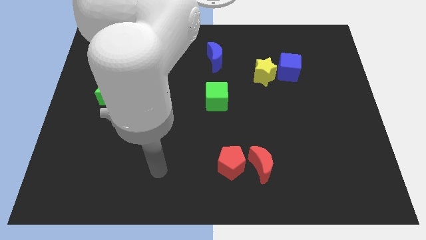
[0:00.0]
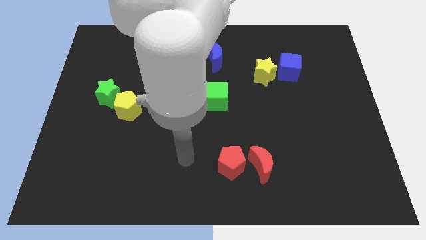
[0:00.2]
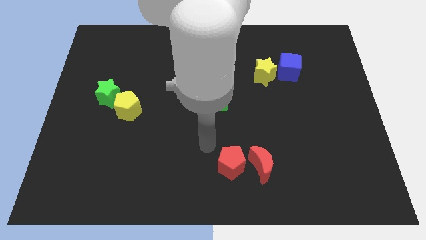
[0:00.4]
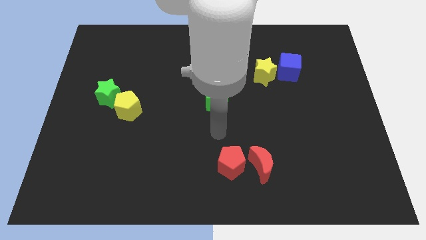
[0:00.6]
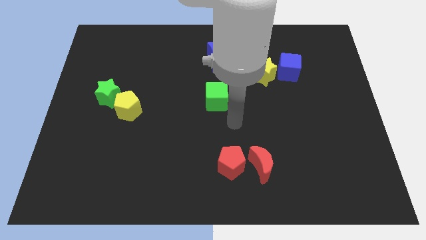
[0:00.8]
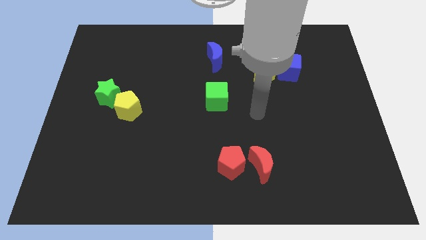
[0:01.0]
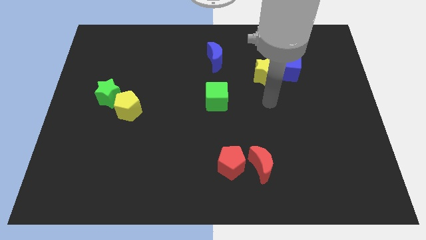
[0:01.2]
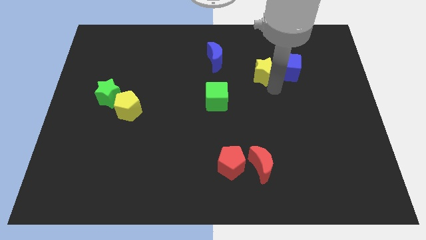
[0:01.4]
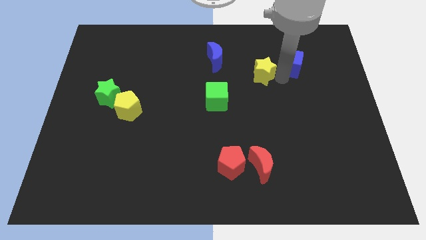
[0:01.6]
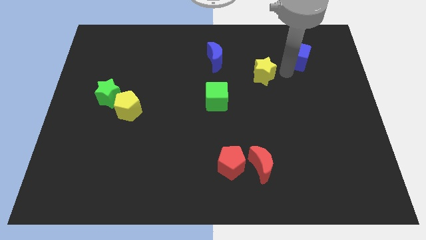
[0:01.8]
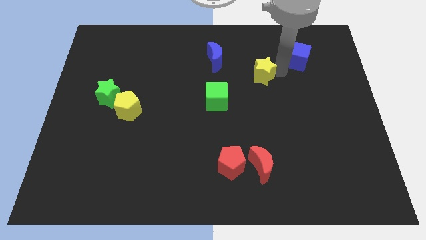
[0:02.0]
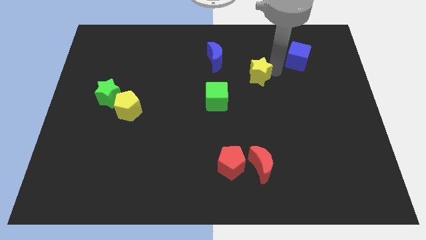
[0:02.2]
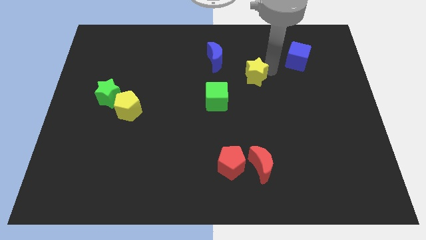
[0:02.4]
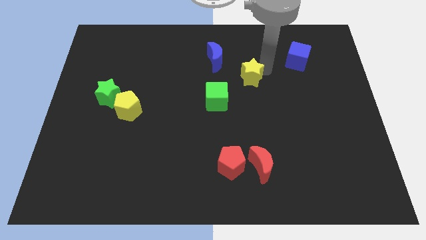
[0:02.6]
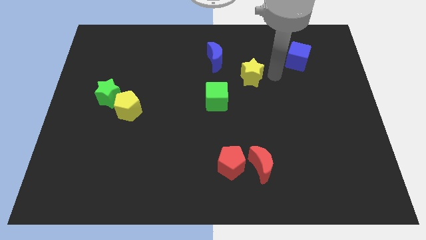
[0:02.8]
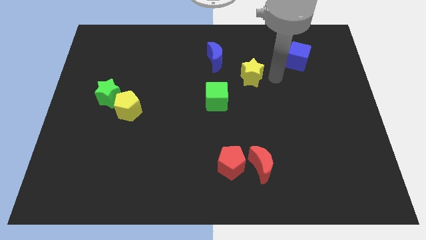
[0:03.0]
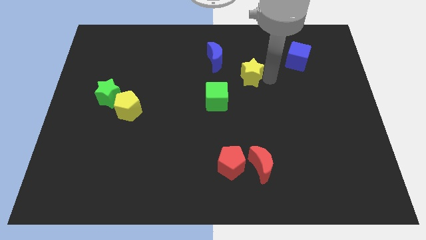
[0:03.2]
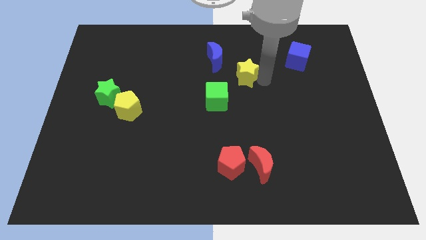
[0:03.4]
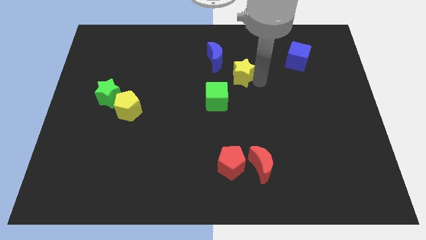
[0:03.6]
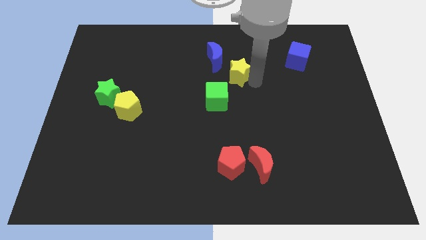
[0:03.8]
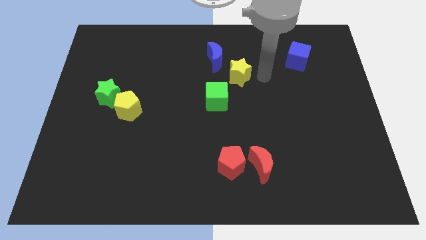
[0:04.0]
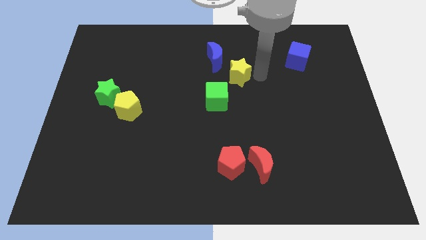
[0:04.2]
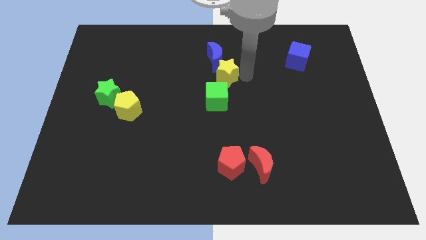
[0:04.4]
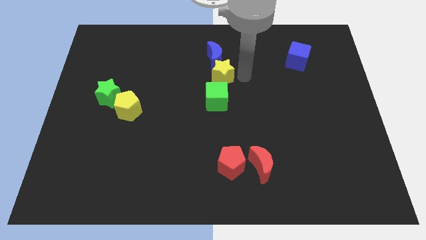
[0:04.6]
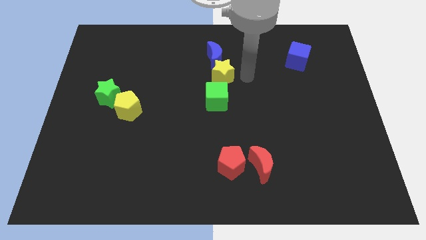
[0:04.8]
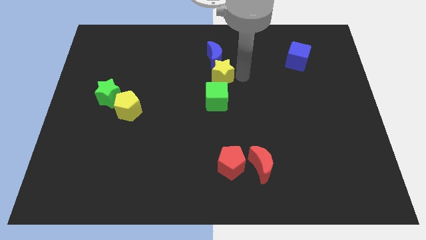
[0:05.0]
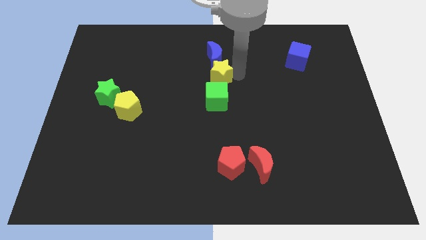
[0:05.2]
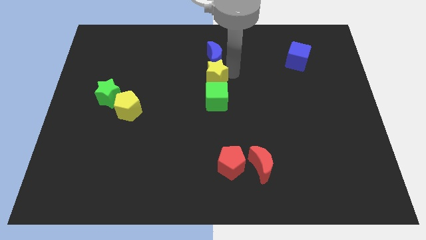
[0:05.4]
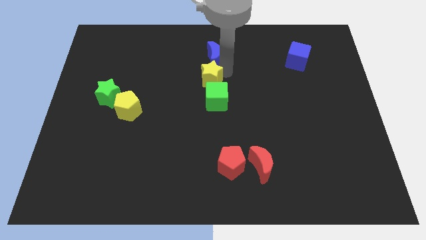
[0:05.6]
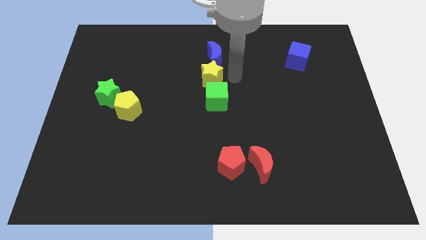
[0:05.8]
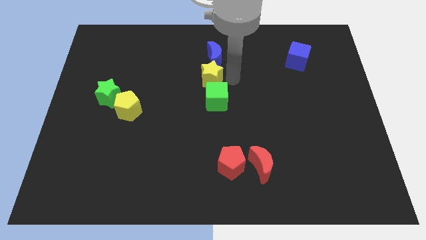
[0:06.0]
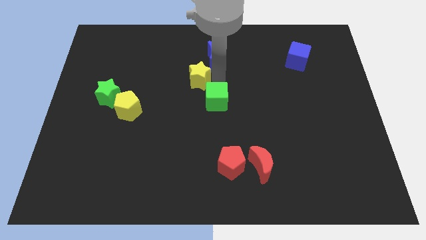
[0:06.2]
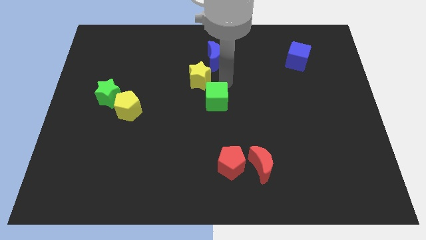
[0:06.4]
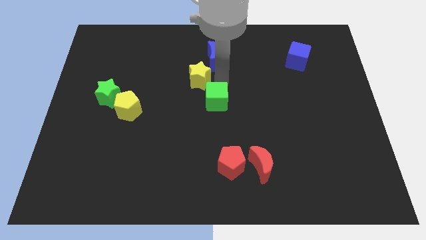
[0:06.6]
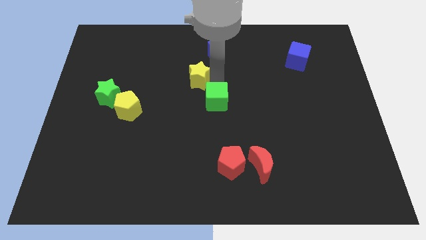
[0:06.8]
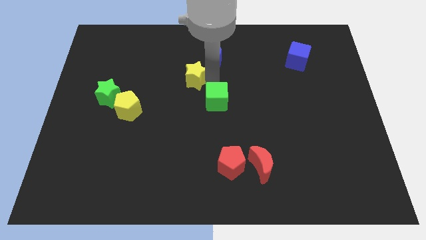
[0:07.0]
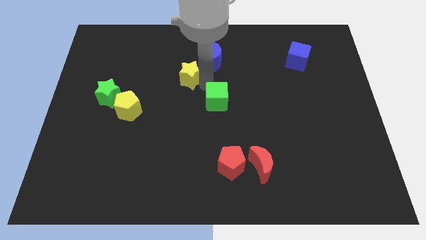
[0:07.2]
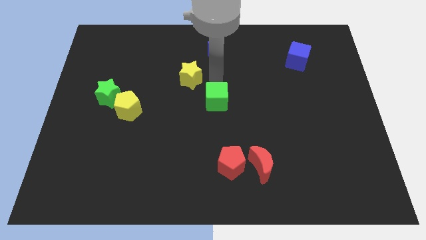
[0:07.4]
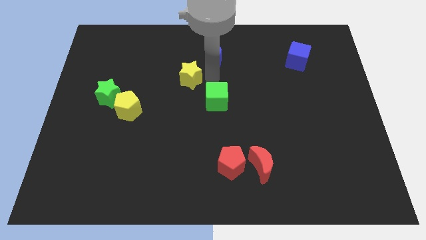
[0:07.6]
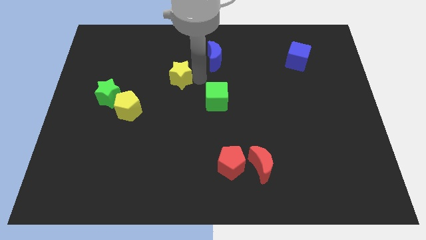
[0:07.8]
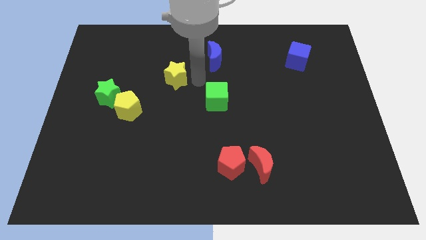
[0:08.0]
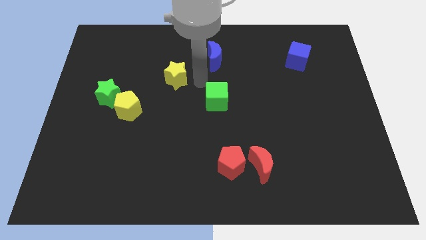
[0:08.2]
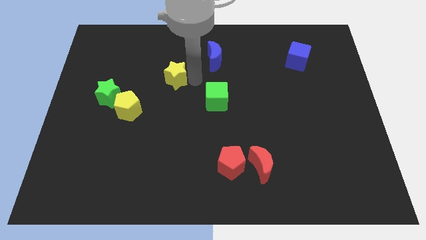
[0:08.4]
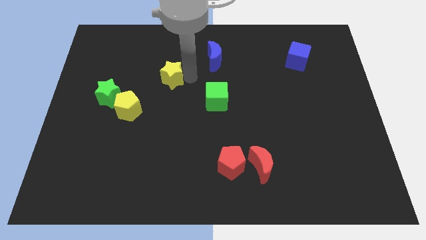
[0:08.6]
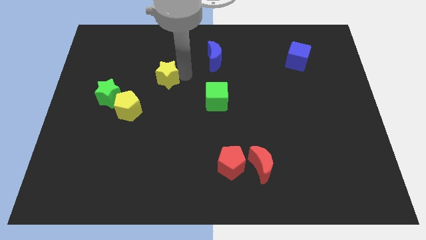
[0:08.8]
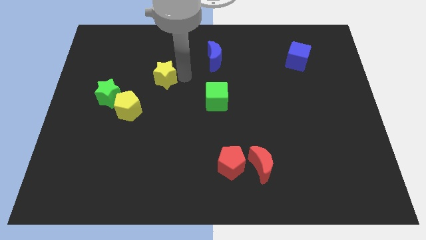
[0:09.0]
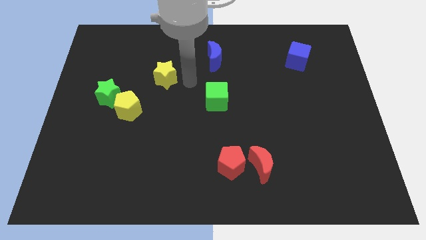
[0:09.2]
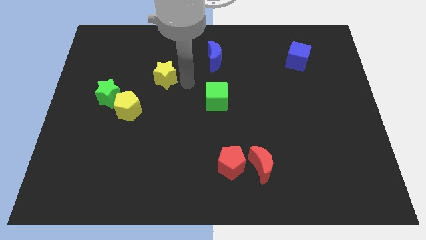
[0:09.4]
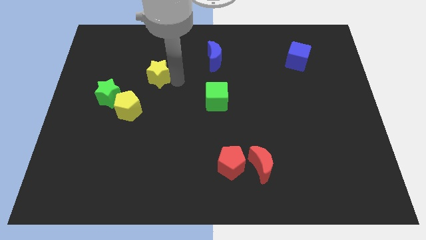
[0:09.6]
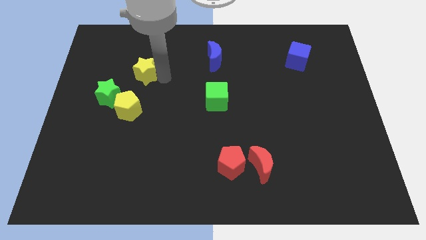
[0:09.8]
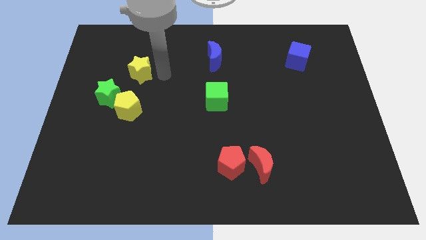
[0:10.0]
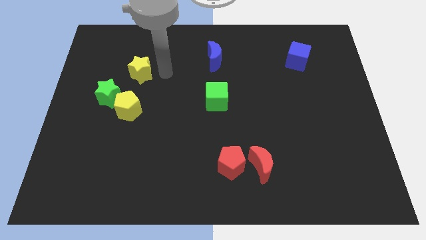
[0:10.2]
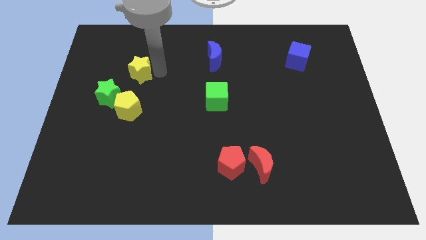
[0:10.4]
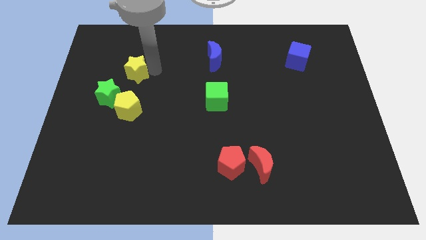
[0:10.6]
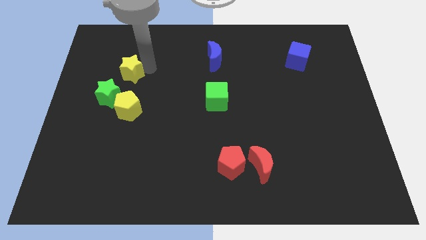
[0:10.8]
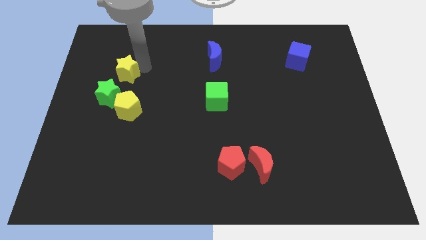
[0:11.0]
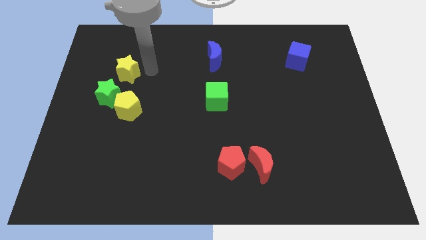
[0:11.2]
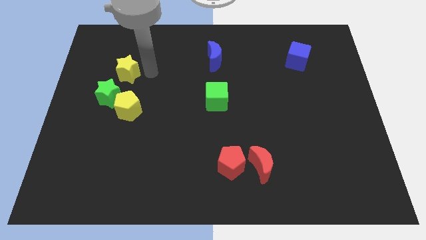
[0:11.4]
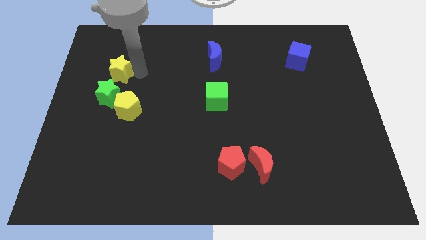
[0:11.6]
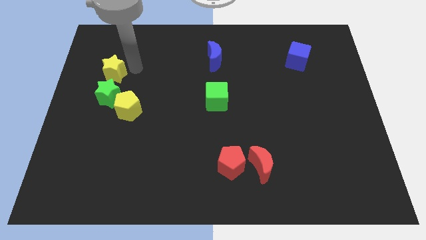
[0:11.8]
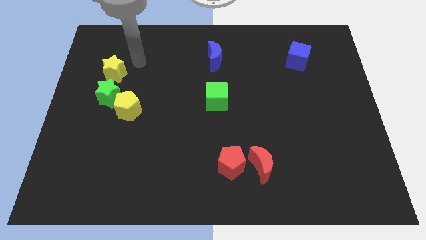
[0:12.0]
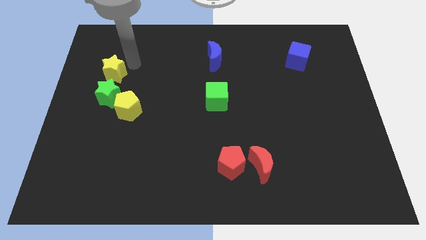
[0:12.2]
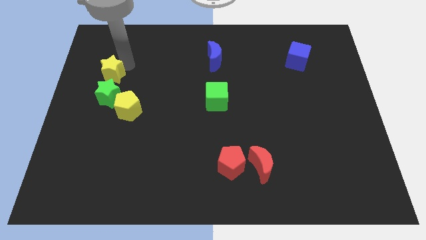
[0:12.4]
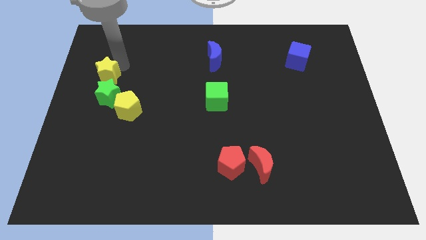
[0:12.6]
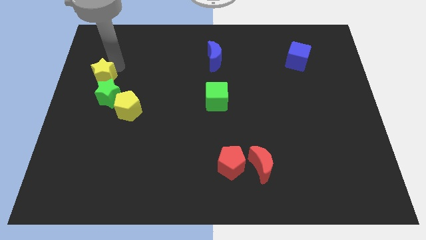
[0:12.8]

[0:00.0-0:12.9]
put the yellow star to the left side of the board
